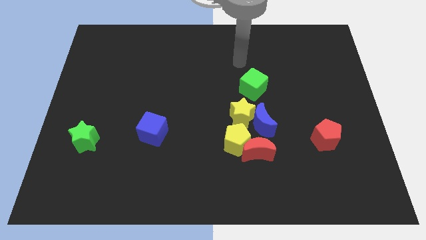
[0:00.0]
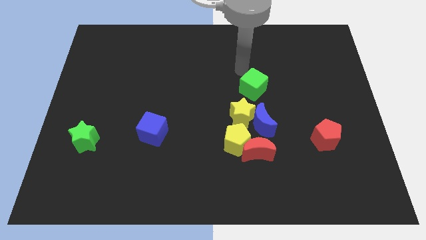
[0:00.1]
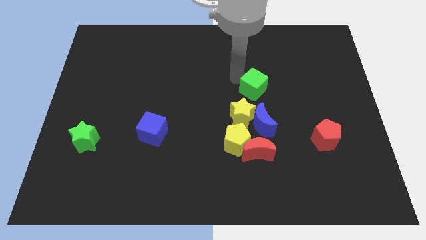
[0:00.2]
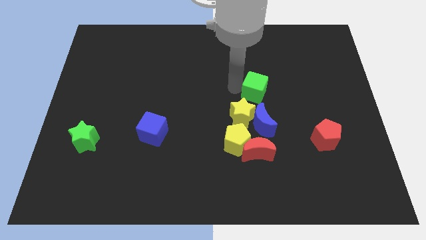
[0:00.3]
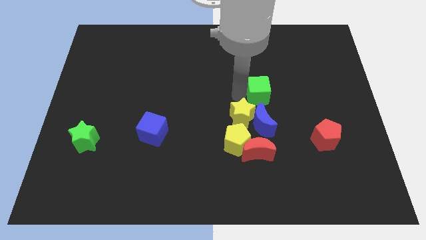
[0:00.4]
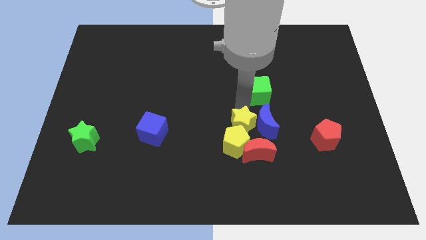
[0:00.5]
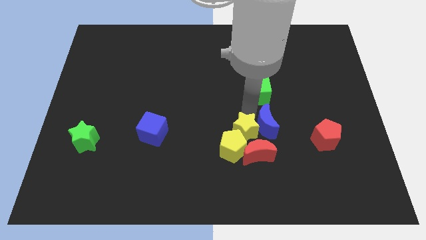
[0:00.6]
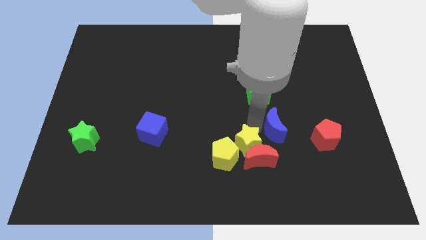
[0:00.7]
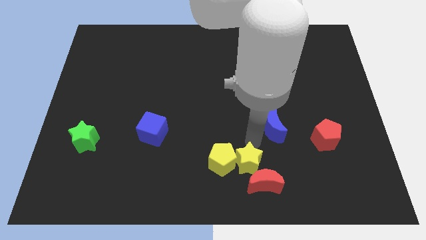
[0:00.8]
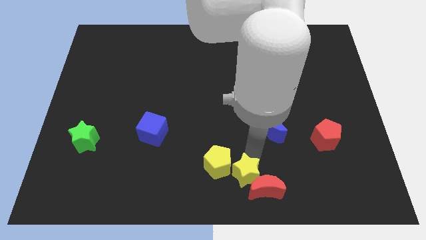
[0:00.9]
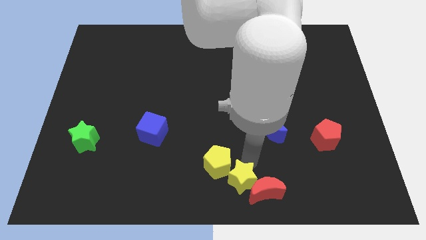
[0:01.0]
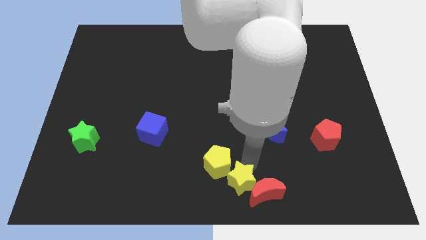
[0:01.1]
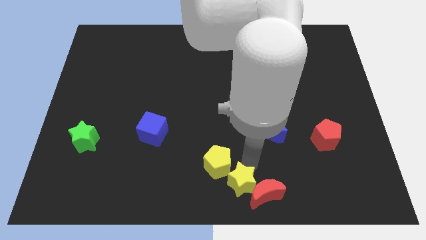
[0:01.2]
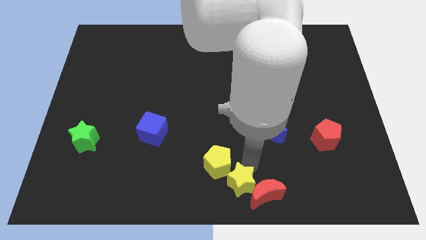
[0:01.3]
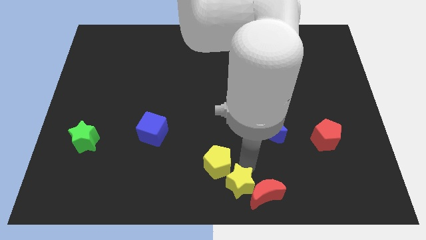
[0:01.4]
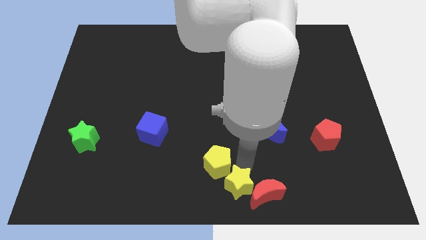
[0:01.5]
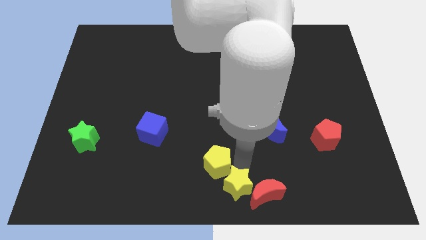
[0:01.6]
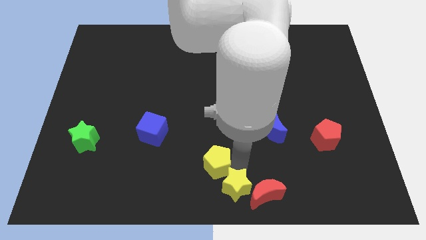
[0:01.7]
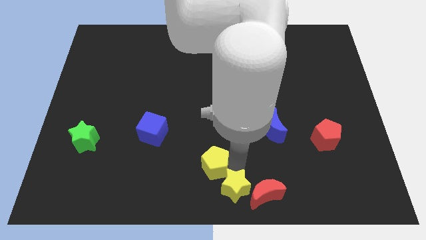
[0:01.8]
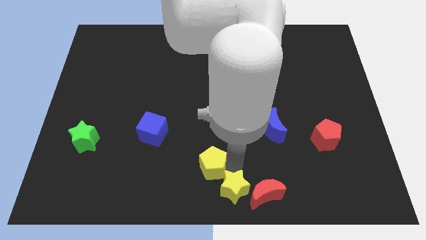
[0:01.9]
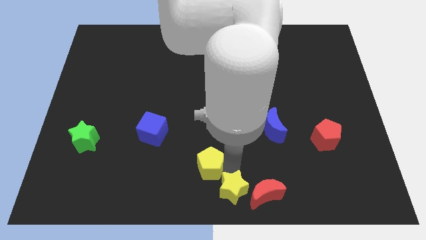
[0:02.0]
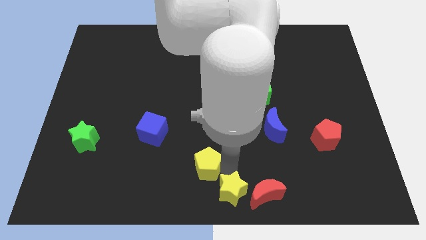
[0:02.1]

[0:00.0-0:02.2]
move the yellow pentagon away from the red moon, yellow star, and blue moon

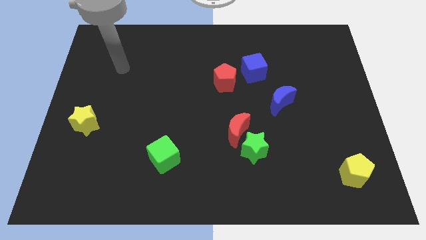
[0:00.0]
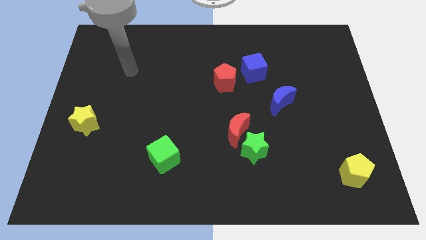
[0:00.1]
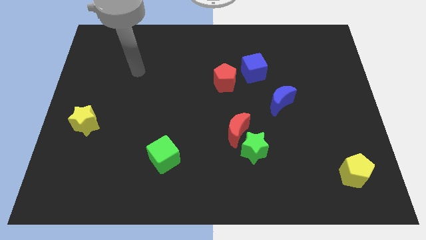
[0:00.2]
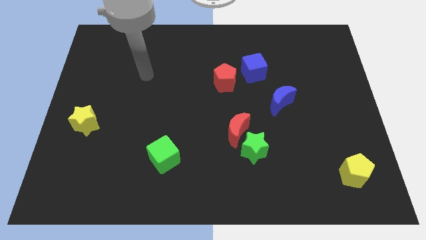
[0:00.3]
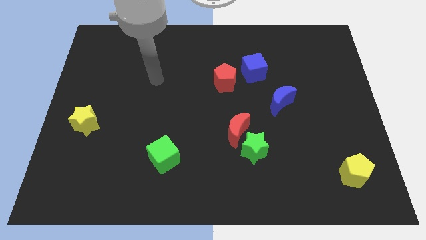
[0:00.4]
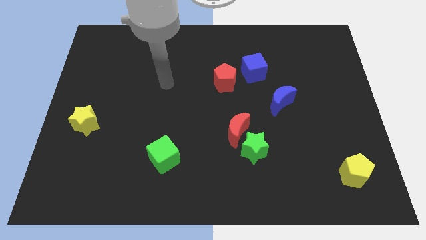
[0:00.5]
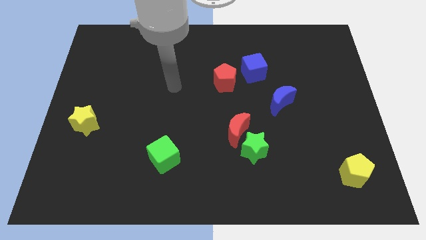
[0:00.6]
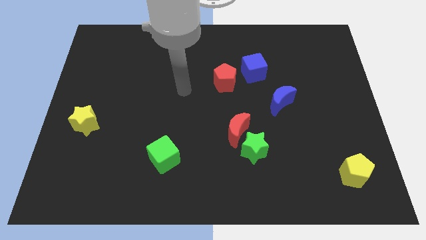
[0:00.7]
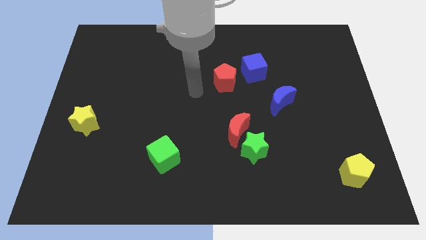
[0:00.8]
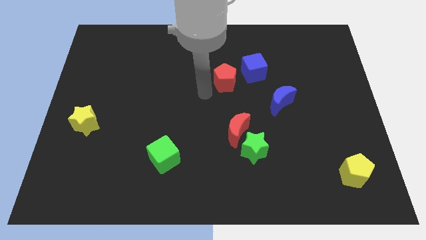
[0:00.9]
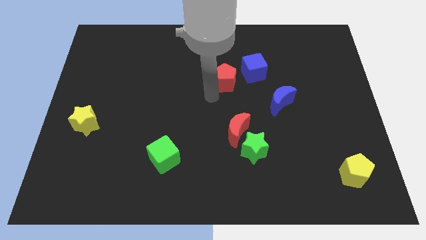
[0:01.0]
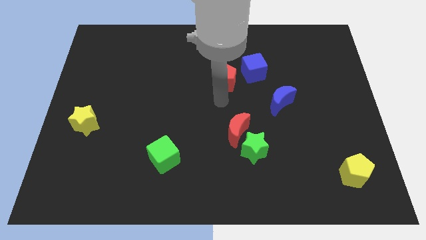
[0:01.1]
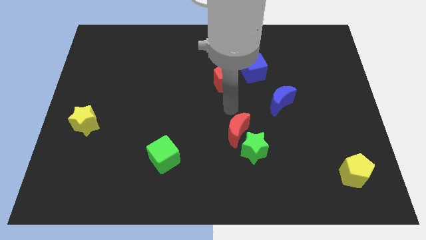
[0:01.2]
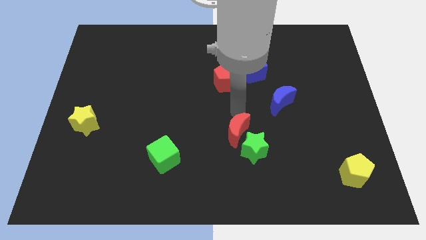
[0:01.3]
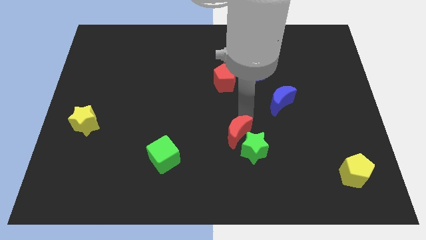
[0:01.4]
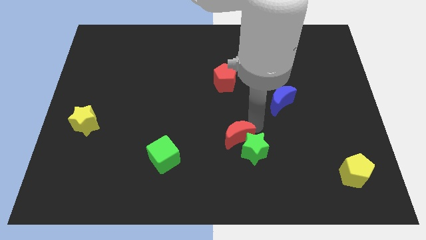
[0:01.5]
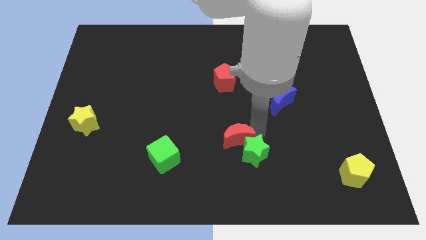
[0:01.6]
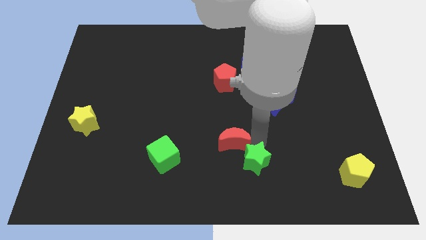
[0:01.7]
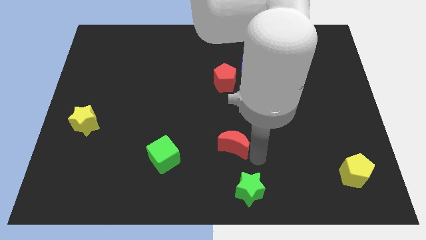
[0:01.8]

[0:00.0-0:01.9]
separate the red moon from the green star

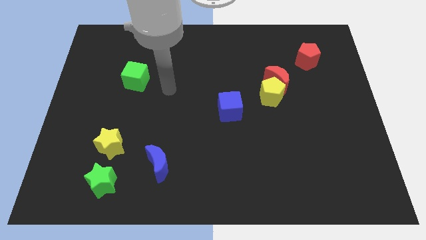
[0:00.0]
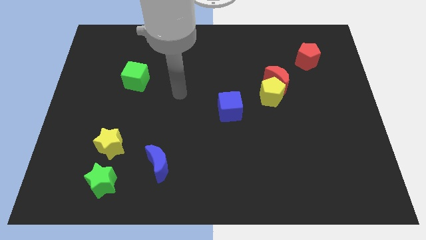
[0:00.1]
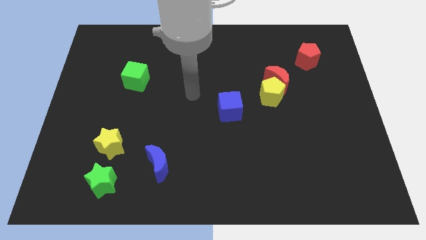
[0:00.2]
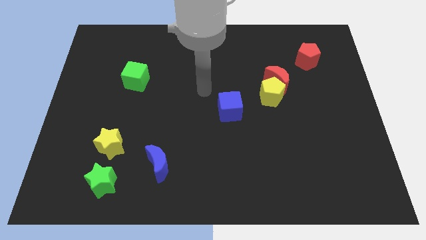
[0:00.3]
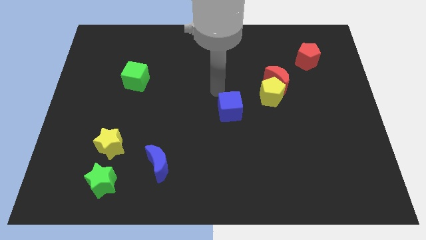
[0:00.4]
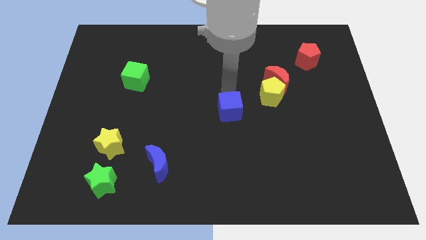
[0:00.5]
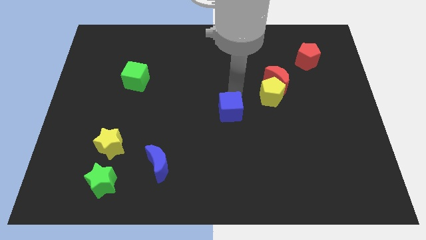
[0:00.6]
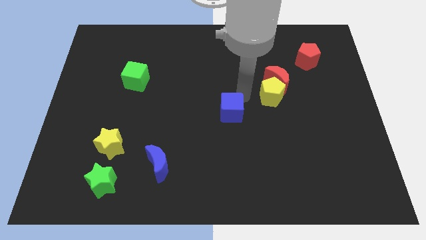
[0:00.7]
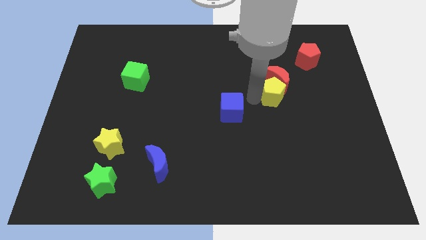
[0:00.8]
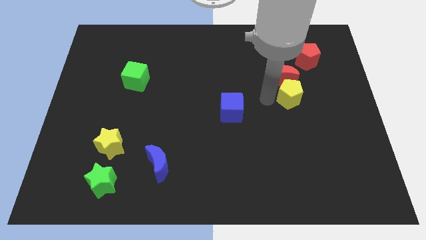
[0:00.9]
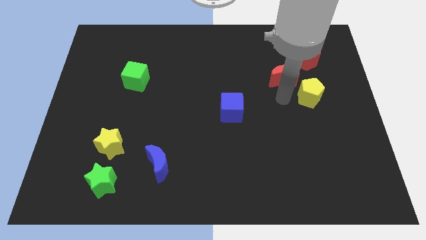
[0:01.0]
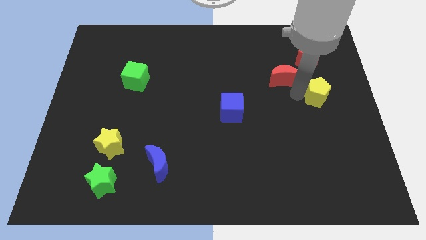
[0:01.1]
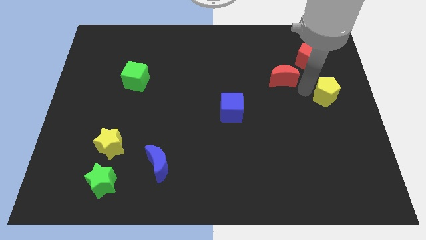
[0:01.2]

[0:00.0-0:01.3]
separate the red moon from the yellow pentagon

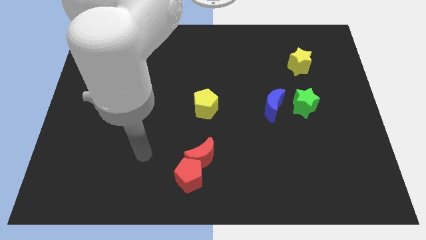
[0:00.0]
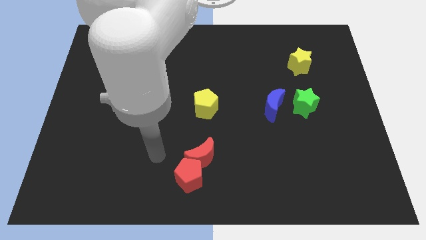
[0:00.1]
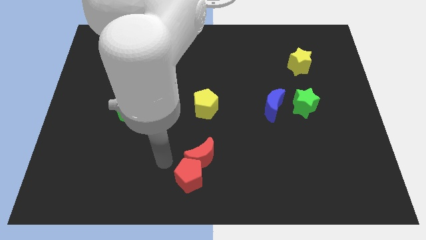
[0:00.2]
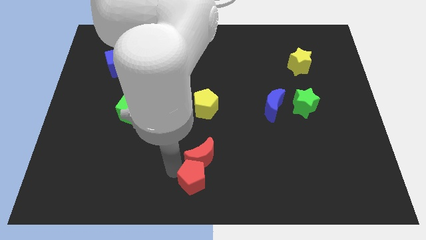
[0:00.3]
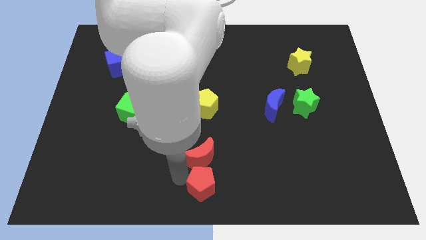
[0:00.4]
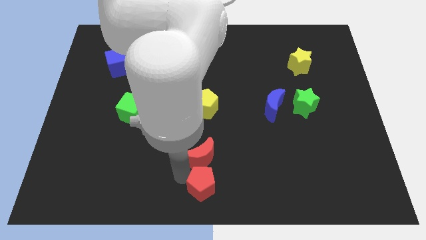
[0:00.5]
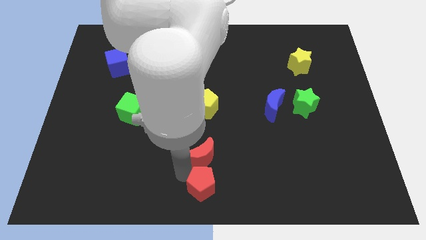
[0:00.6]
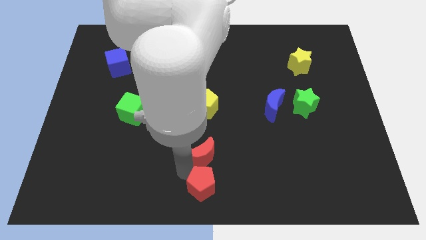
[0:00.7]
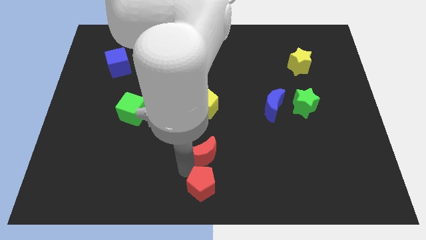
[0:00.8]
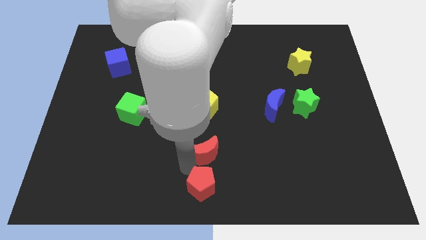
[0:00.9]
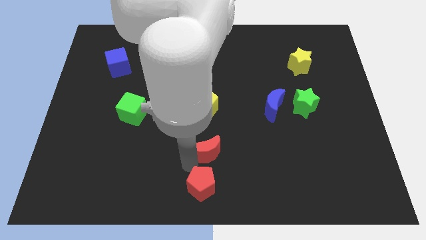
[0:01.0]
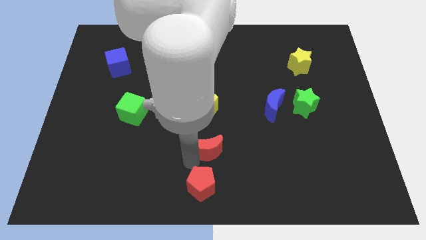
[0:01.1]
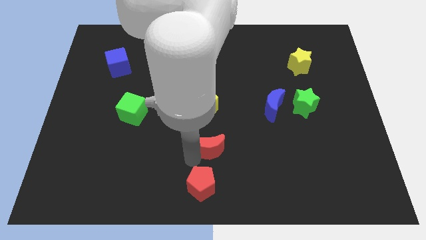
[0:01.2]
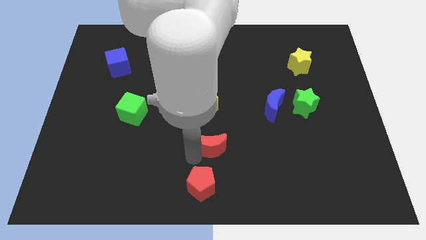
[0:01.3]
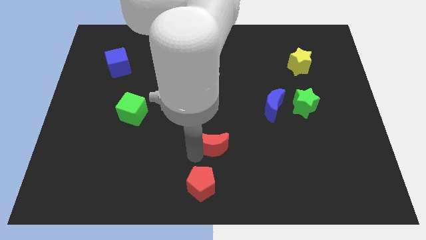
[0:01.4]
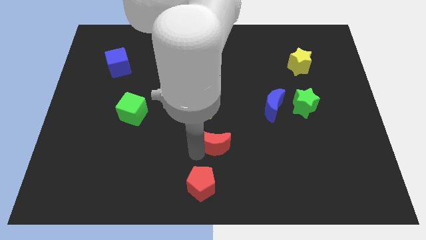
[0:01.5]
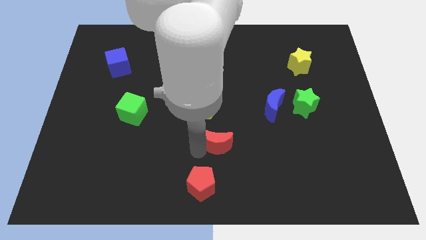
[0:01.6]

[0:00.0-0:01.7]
move the red moon away from the red pentagon

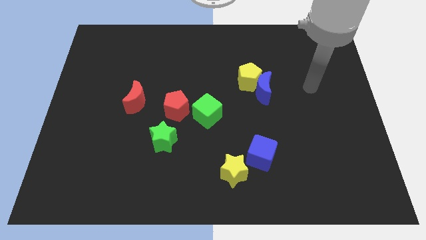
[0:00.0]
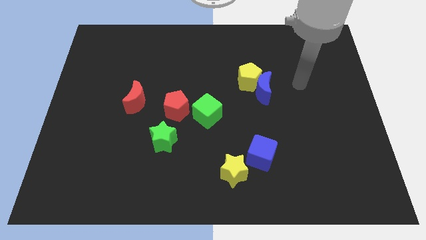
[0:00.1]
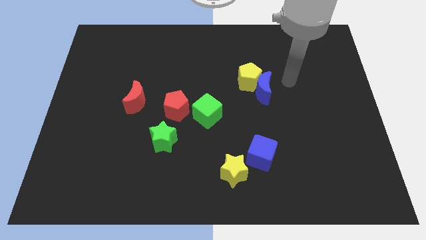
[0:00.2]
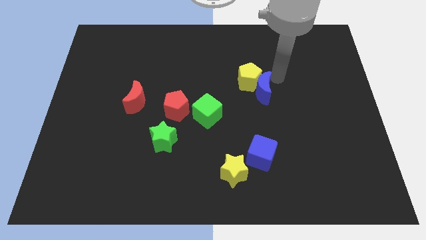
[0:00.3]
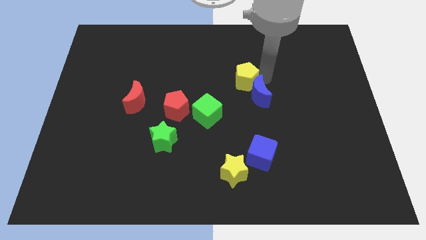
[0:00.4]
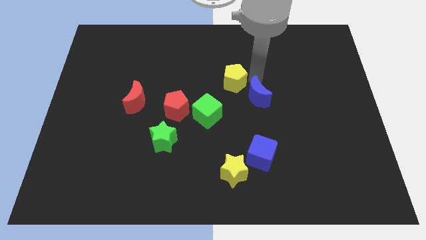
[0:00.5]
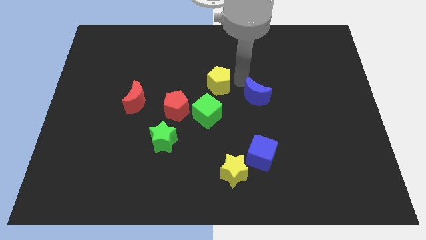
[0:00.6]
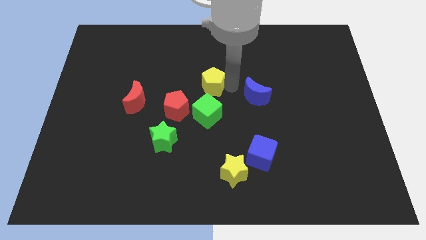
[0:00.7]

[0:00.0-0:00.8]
pull the blue moon apart from the yellow pentagon

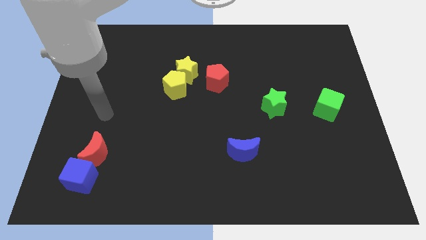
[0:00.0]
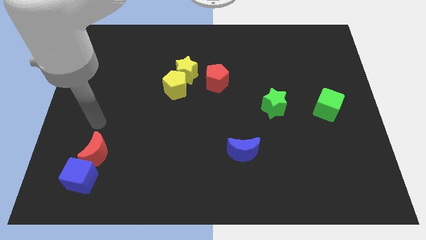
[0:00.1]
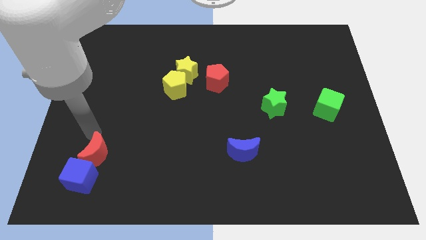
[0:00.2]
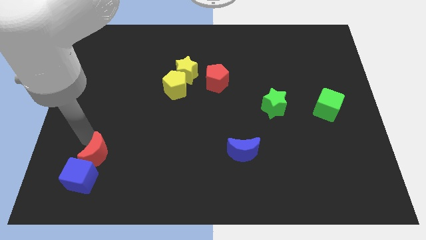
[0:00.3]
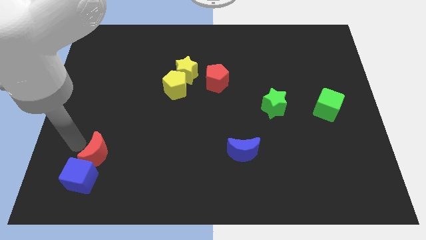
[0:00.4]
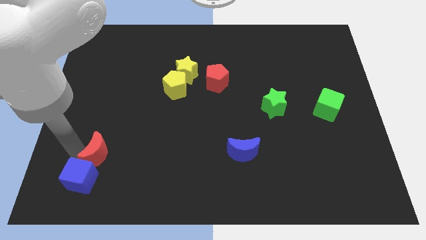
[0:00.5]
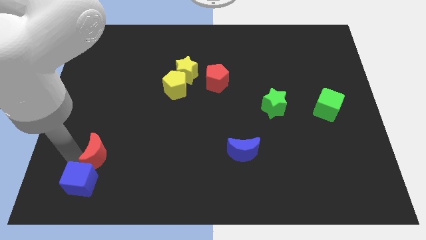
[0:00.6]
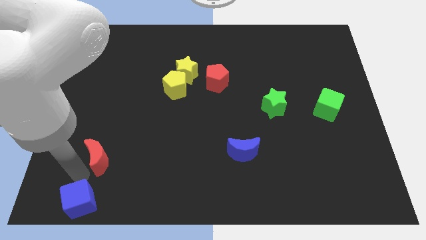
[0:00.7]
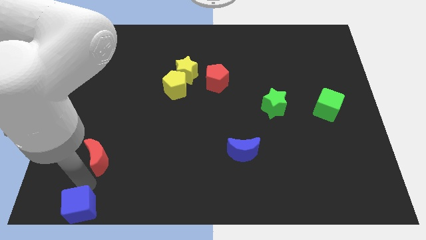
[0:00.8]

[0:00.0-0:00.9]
pull the red moon apart from the blue cube

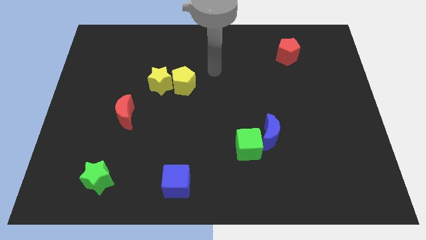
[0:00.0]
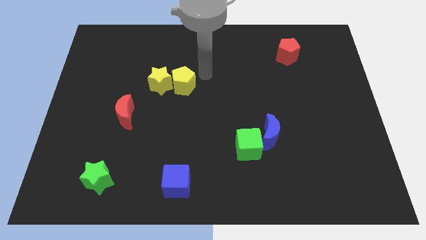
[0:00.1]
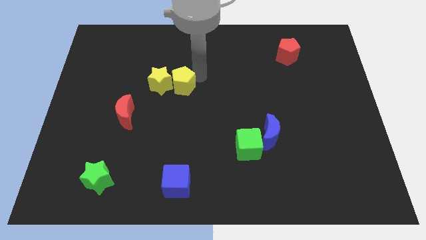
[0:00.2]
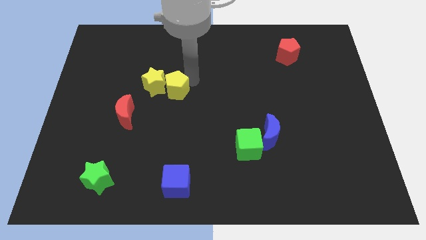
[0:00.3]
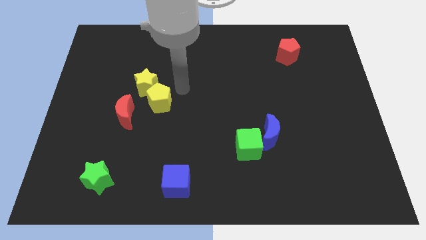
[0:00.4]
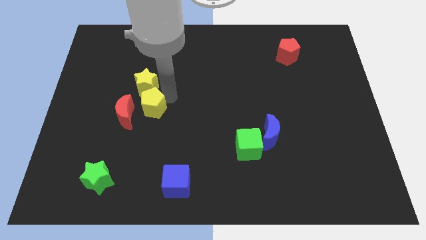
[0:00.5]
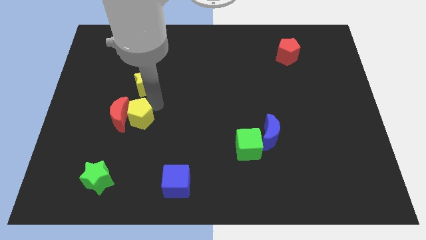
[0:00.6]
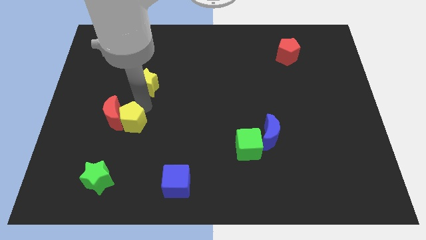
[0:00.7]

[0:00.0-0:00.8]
separate the yellow star from the yellow pentagon
